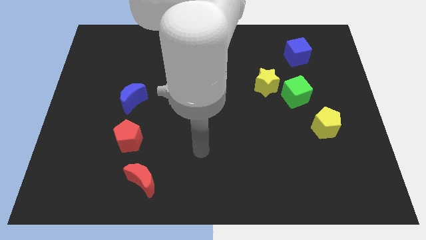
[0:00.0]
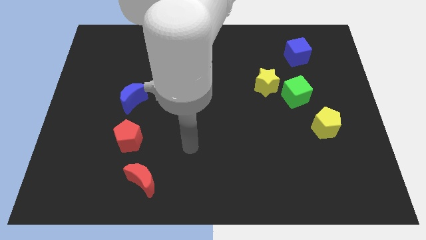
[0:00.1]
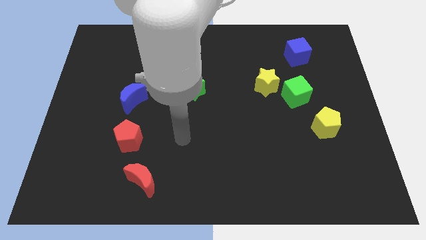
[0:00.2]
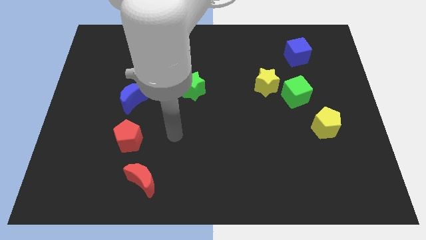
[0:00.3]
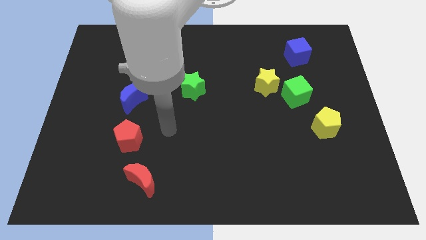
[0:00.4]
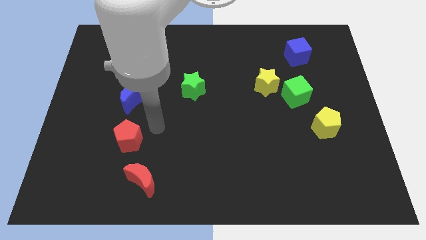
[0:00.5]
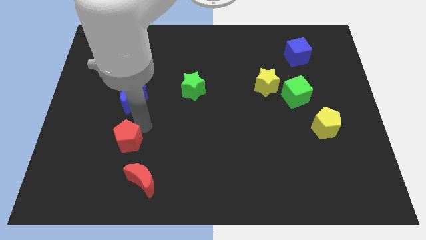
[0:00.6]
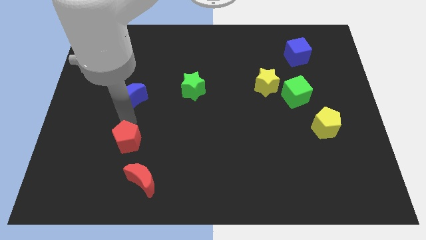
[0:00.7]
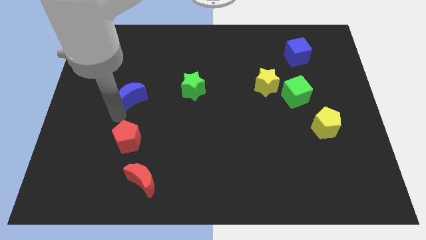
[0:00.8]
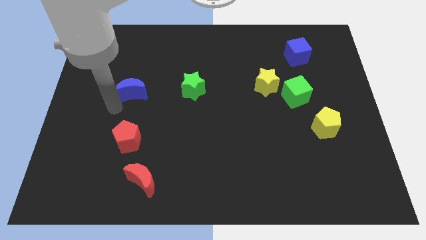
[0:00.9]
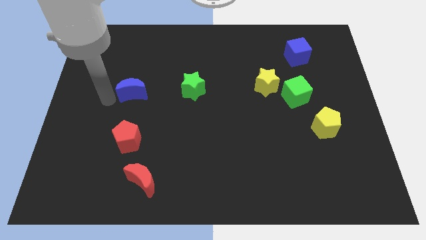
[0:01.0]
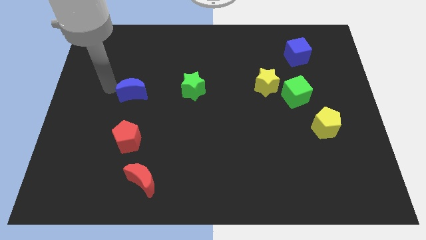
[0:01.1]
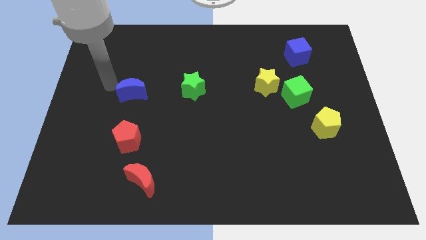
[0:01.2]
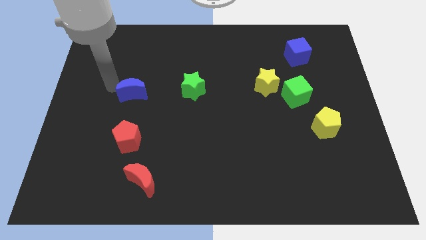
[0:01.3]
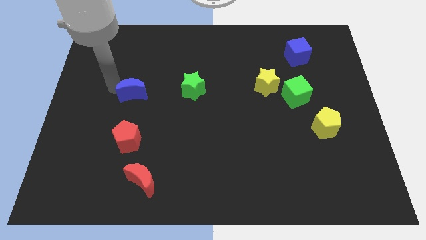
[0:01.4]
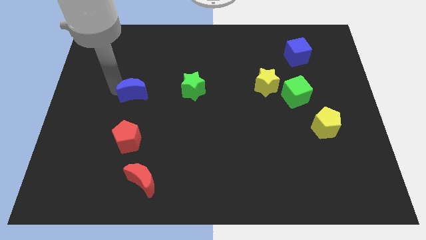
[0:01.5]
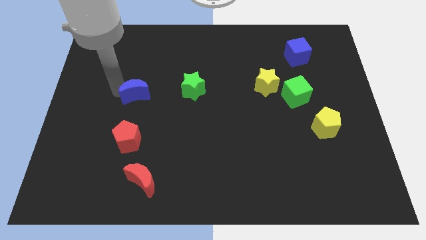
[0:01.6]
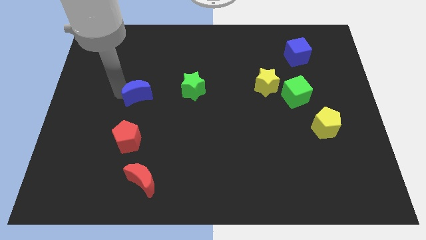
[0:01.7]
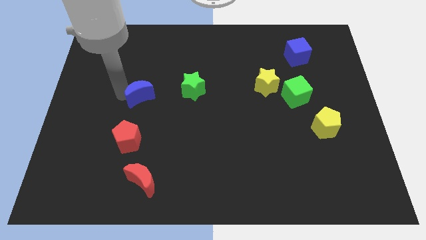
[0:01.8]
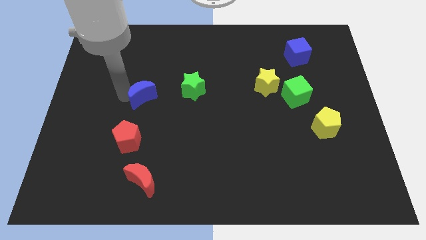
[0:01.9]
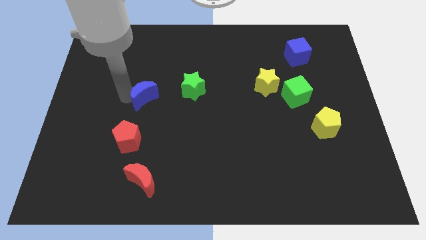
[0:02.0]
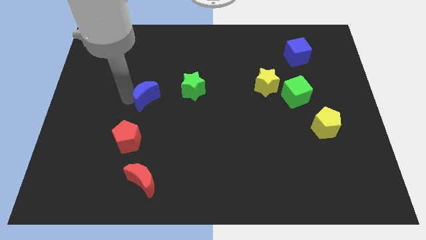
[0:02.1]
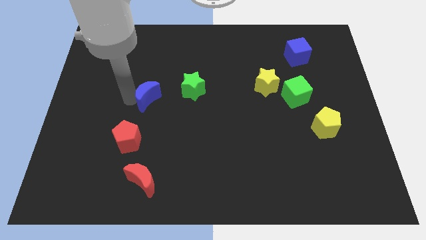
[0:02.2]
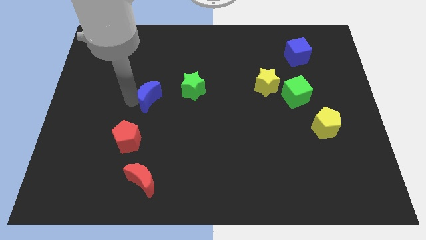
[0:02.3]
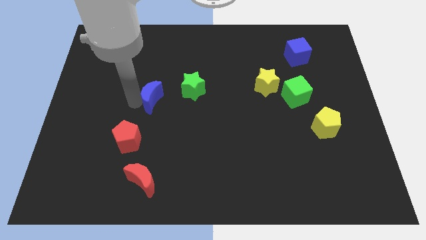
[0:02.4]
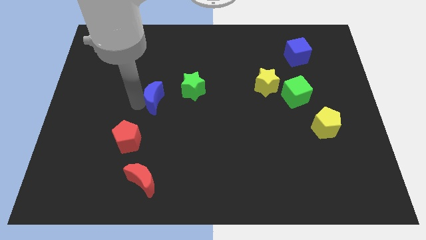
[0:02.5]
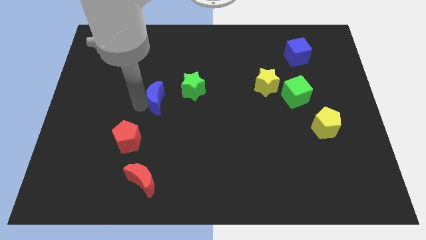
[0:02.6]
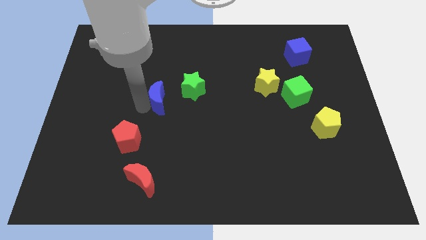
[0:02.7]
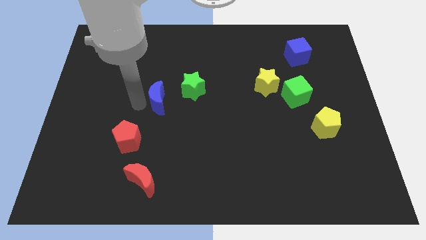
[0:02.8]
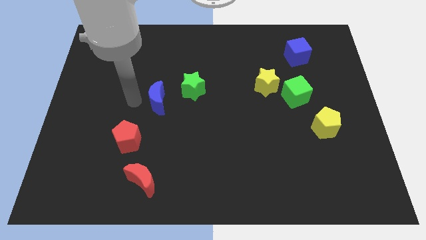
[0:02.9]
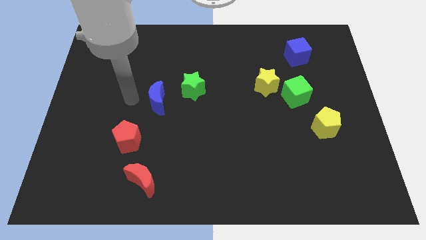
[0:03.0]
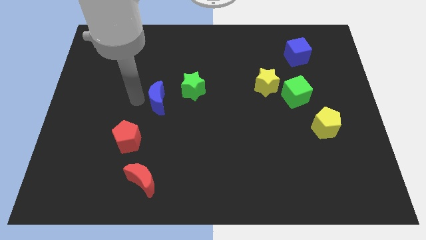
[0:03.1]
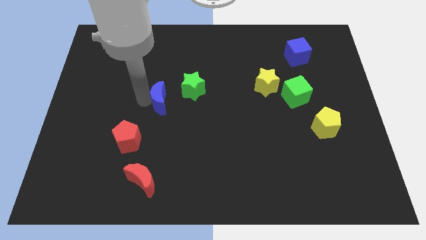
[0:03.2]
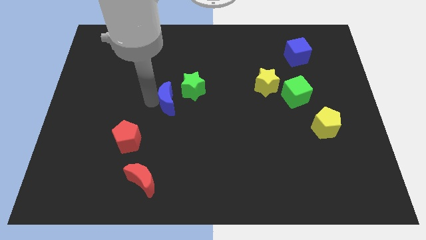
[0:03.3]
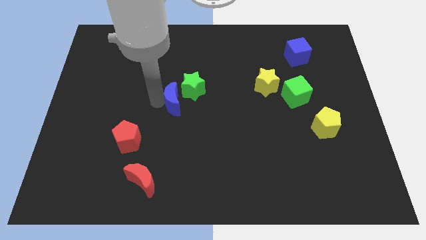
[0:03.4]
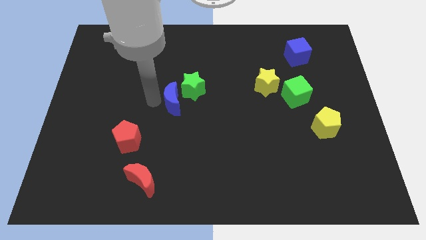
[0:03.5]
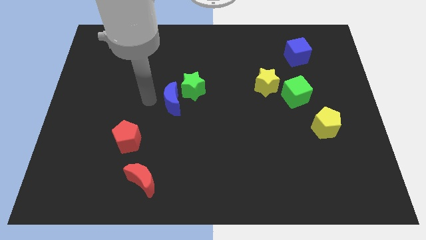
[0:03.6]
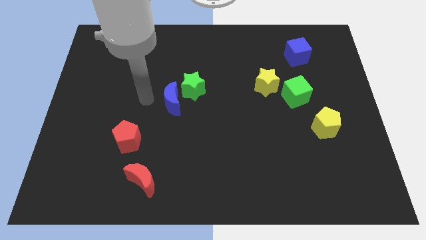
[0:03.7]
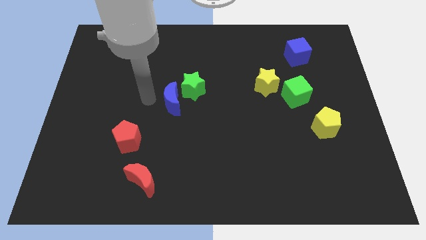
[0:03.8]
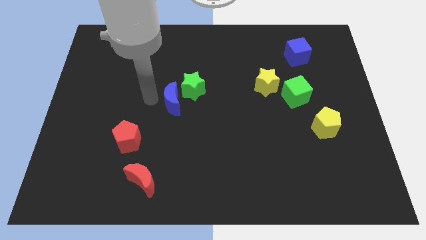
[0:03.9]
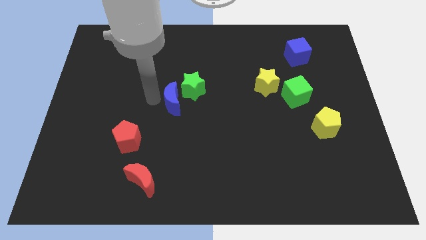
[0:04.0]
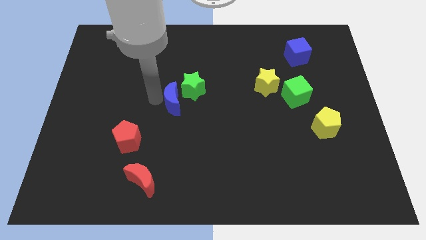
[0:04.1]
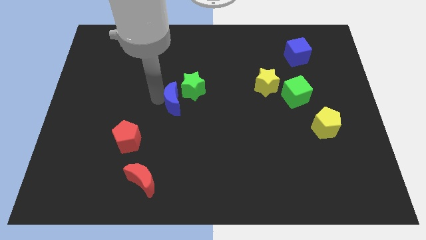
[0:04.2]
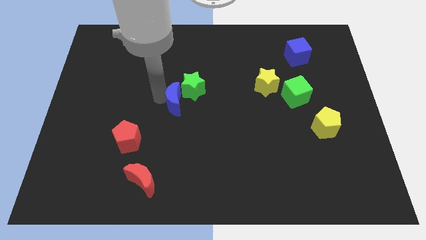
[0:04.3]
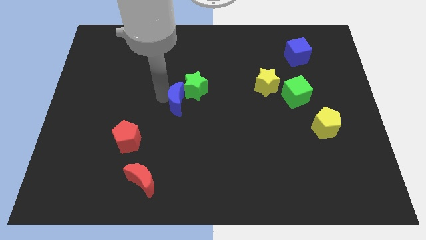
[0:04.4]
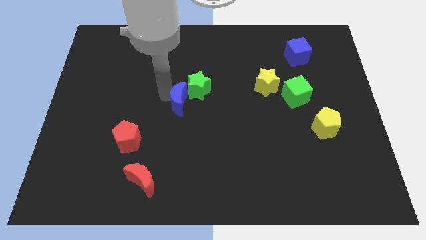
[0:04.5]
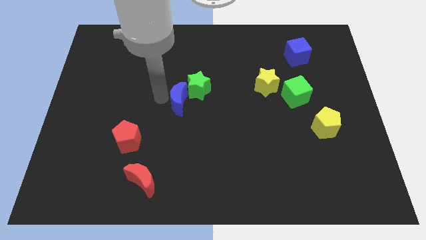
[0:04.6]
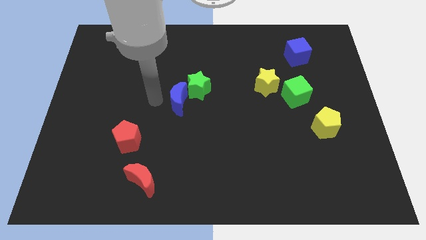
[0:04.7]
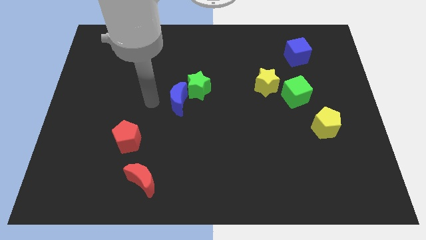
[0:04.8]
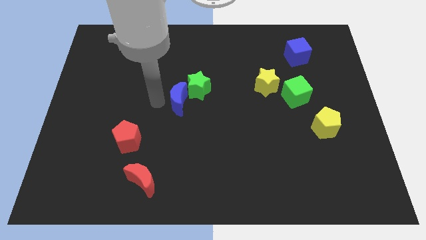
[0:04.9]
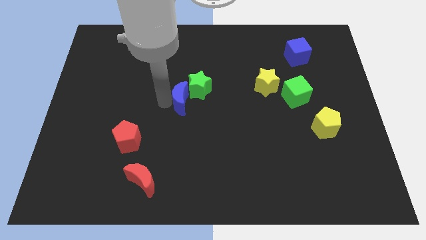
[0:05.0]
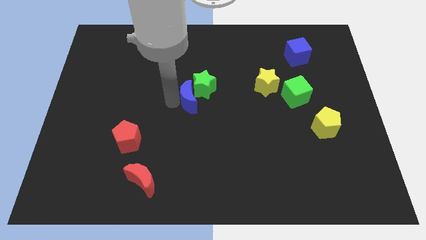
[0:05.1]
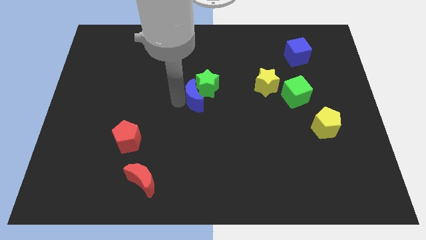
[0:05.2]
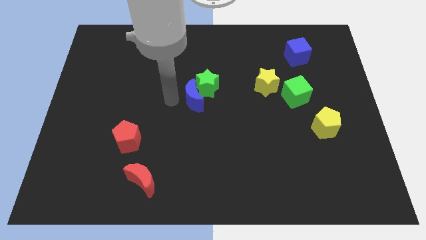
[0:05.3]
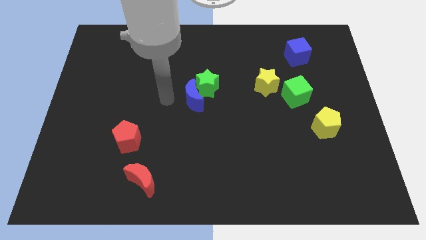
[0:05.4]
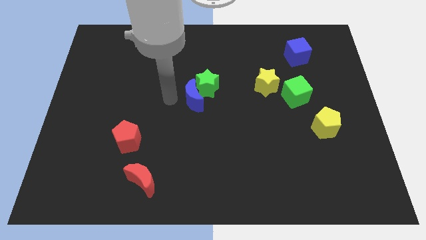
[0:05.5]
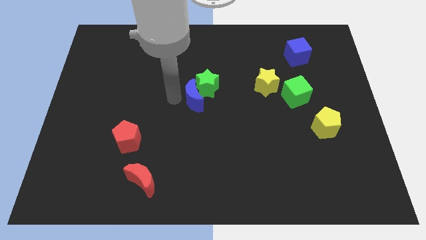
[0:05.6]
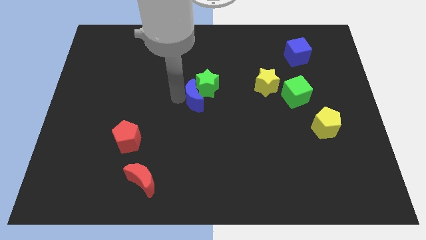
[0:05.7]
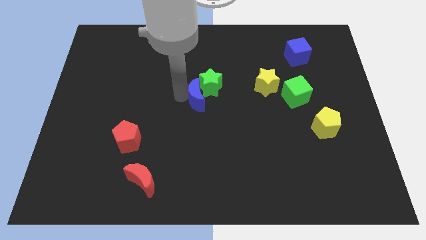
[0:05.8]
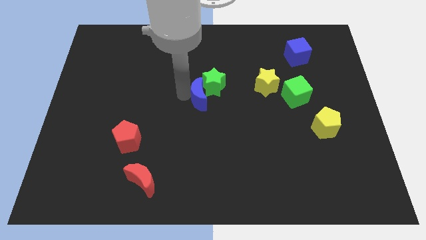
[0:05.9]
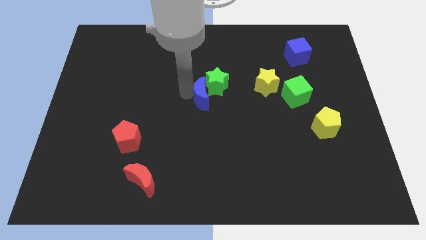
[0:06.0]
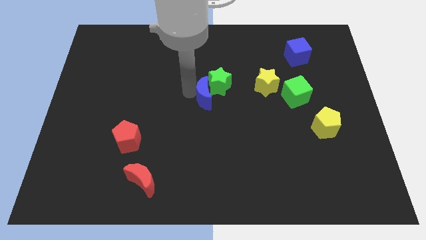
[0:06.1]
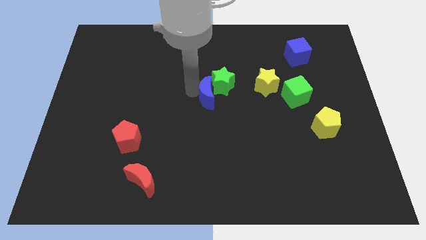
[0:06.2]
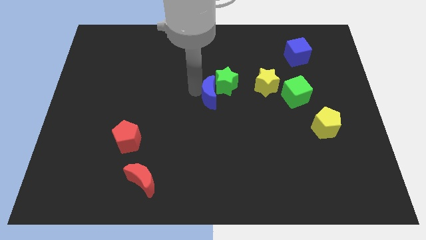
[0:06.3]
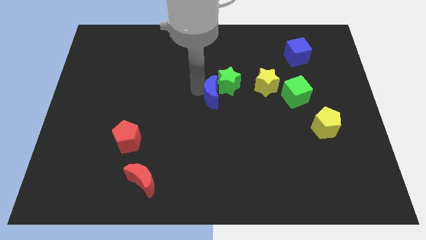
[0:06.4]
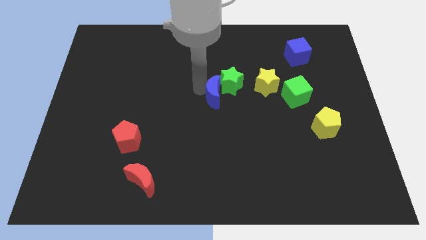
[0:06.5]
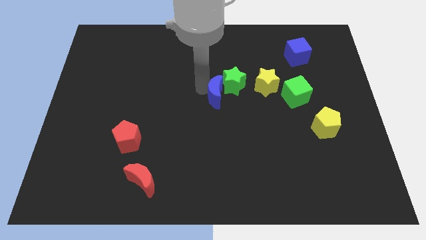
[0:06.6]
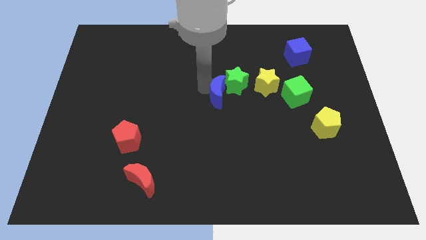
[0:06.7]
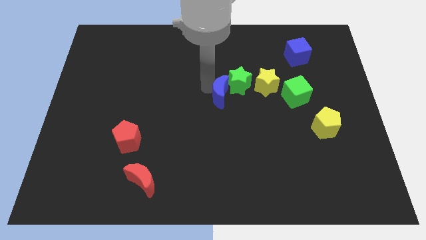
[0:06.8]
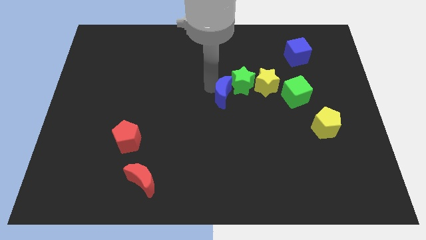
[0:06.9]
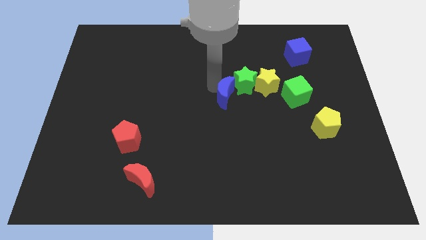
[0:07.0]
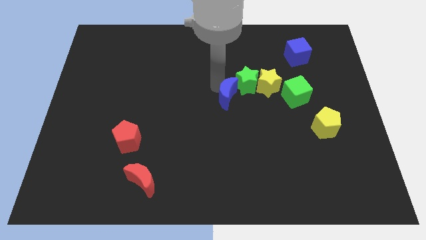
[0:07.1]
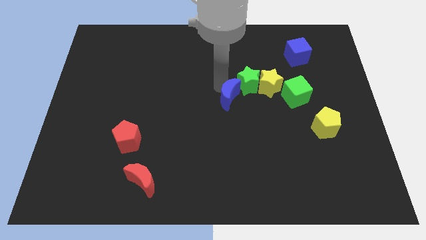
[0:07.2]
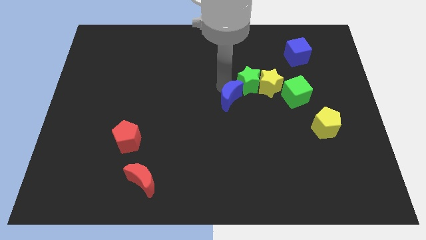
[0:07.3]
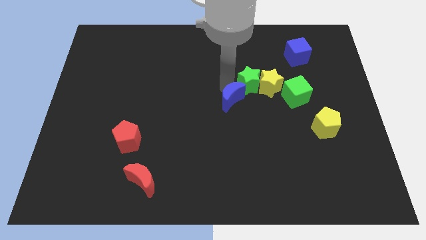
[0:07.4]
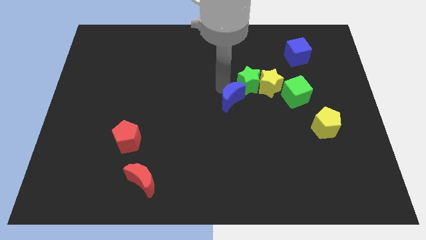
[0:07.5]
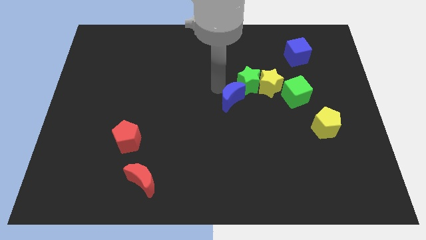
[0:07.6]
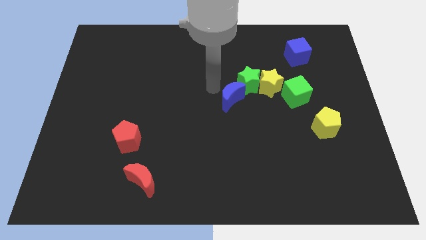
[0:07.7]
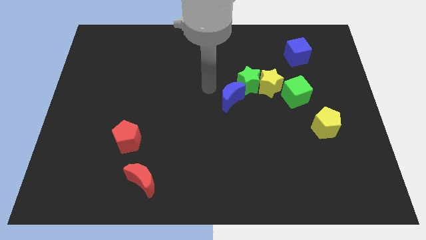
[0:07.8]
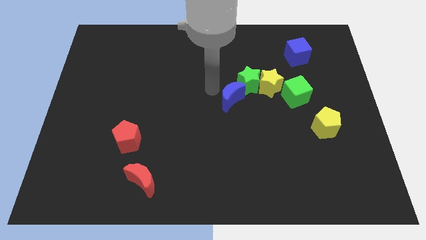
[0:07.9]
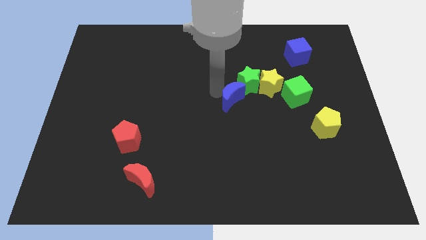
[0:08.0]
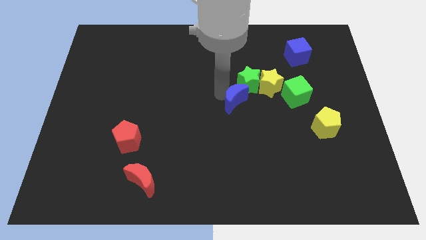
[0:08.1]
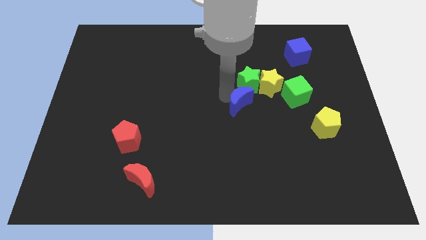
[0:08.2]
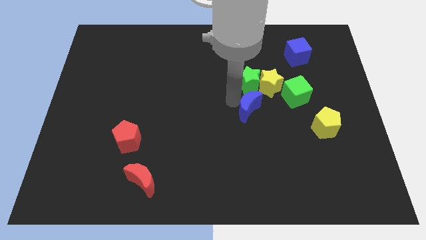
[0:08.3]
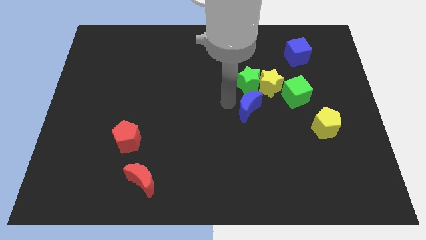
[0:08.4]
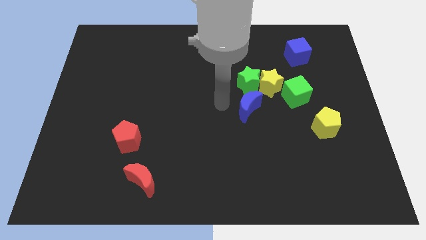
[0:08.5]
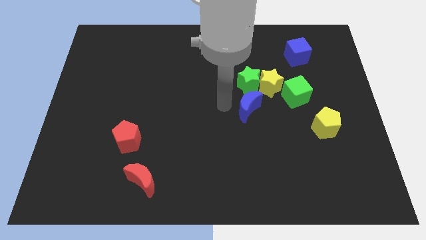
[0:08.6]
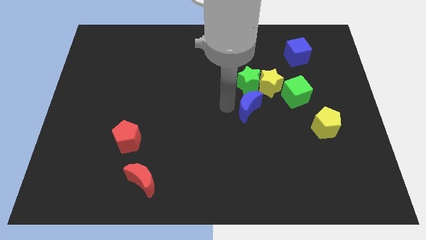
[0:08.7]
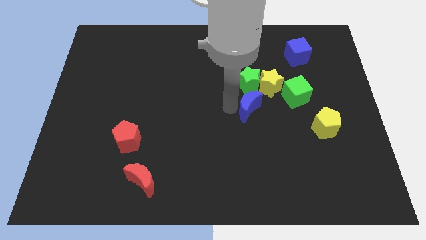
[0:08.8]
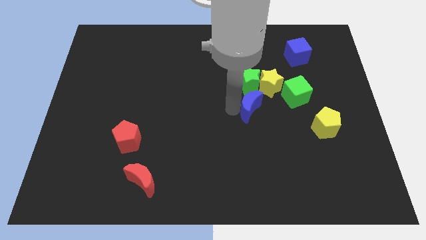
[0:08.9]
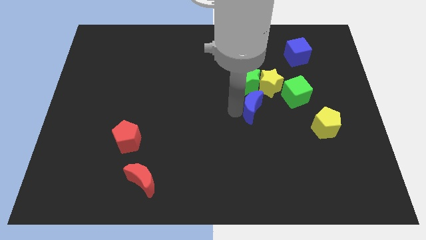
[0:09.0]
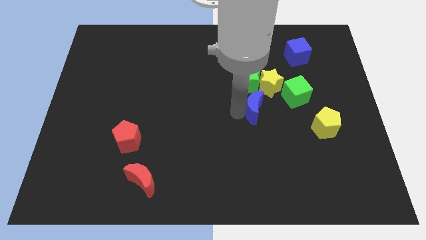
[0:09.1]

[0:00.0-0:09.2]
slide the blue moon diagonally down and to the left of the green cube
